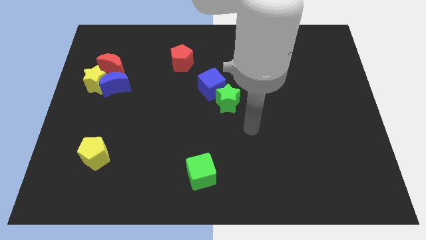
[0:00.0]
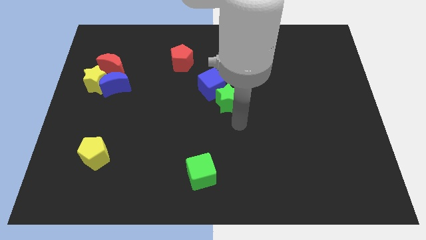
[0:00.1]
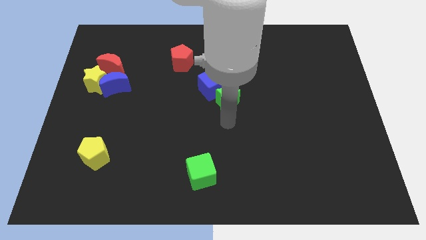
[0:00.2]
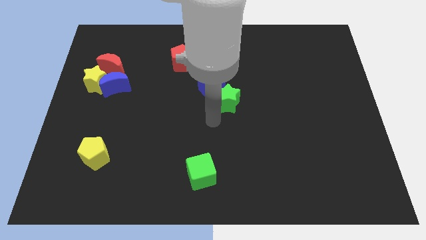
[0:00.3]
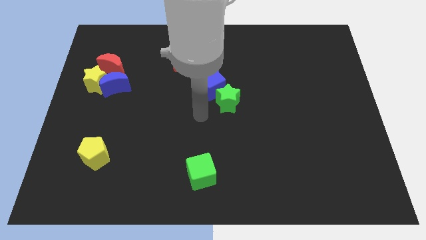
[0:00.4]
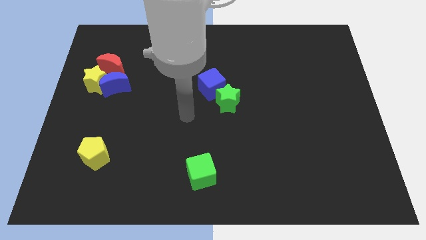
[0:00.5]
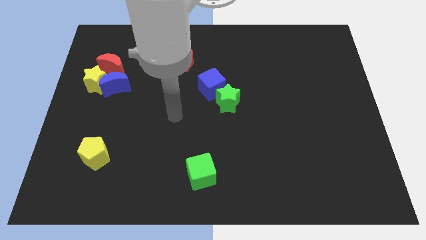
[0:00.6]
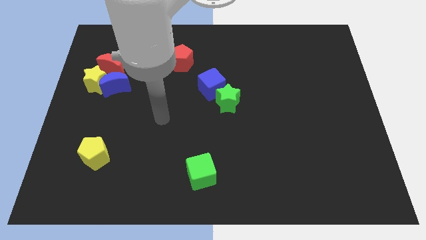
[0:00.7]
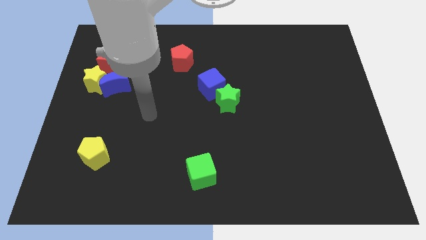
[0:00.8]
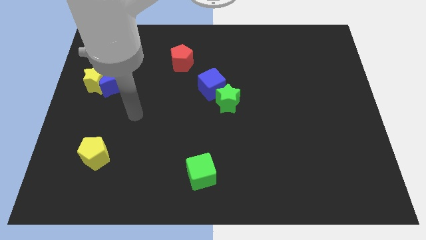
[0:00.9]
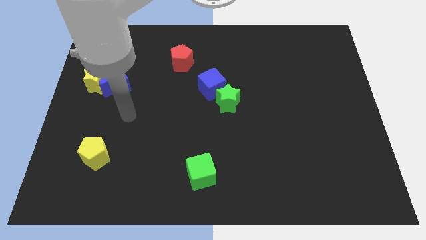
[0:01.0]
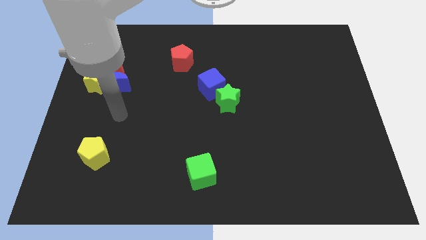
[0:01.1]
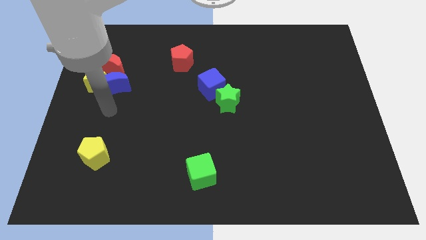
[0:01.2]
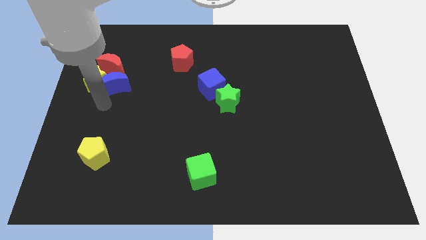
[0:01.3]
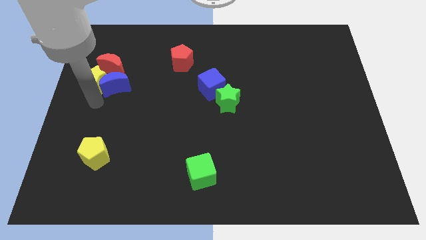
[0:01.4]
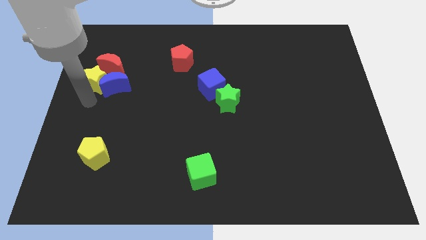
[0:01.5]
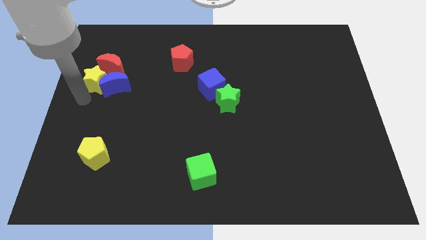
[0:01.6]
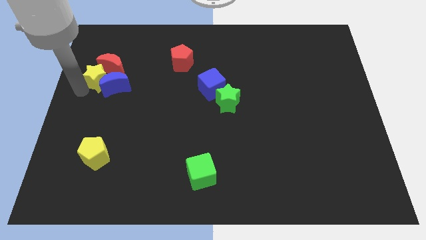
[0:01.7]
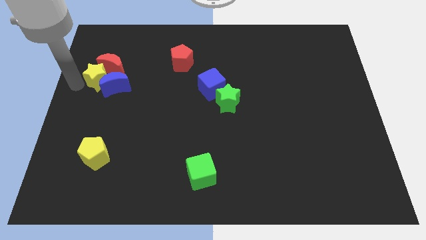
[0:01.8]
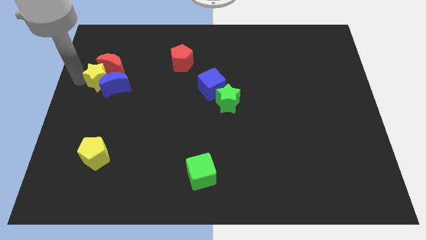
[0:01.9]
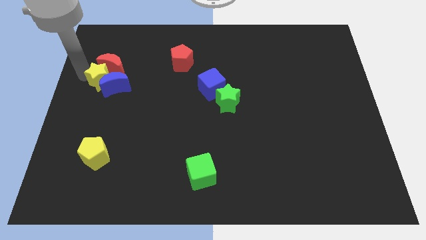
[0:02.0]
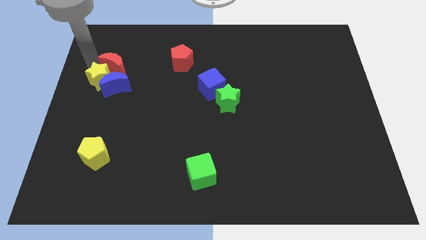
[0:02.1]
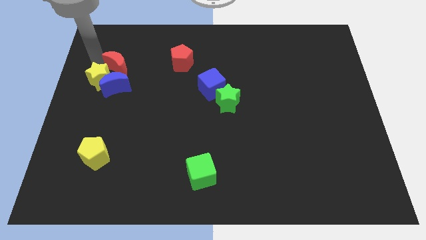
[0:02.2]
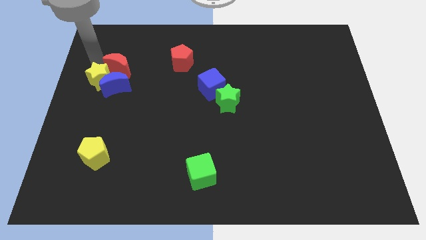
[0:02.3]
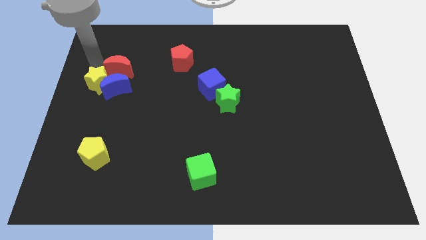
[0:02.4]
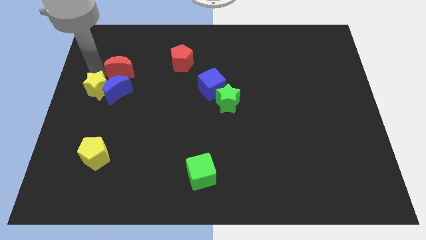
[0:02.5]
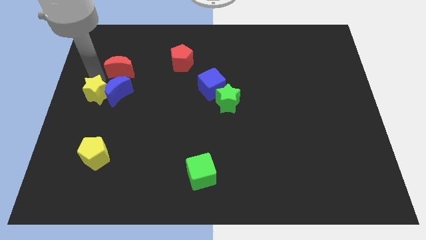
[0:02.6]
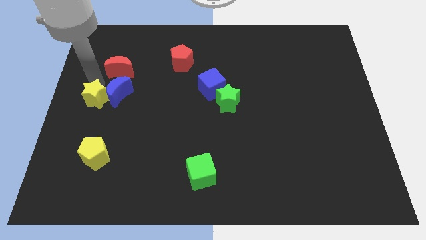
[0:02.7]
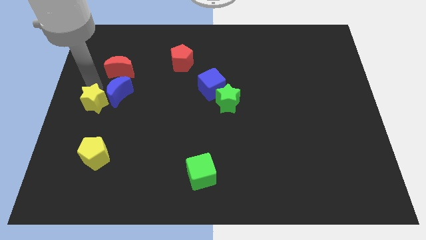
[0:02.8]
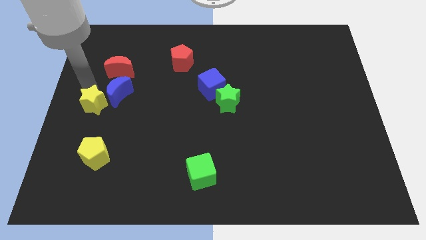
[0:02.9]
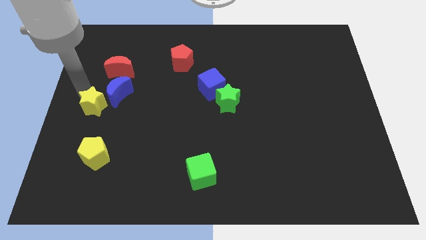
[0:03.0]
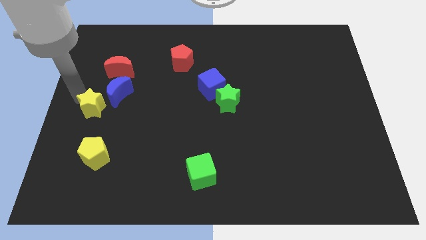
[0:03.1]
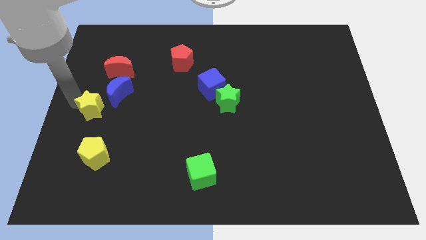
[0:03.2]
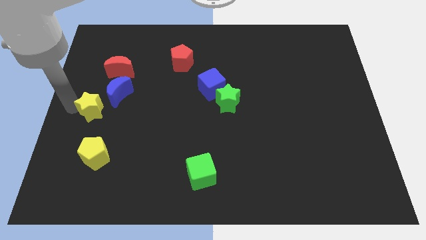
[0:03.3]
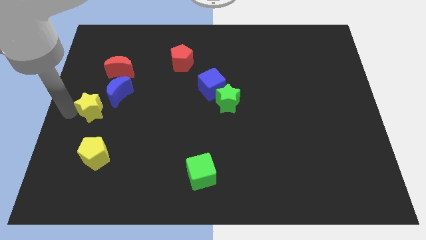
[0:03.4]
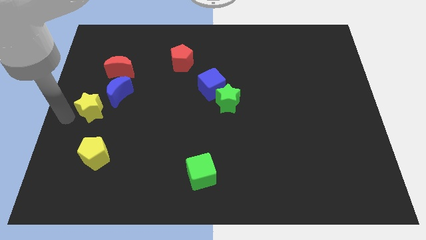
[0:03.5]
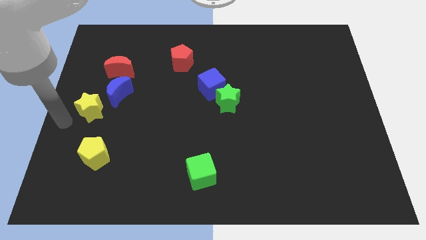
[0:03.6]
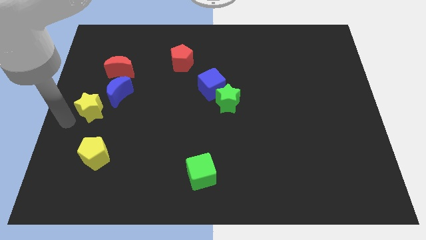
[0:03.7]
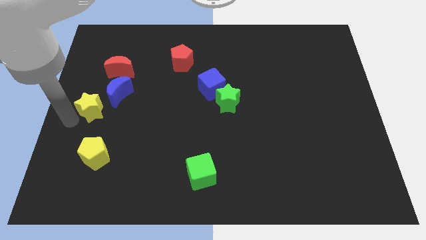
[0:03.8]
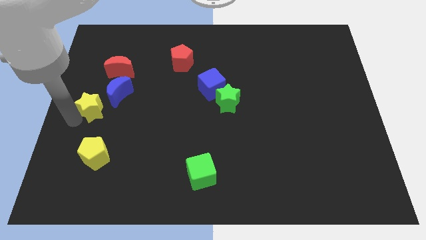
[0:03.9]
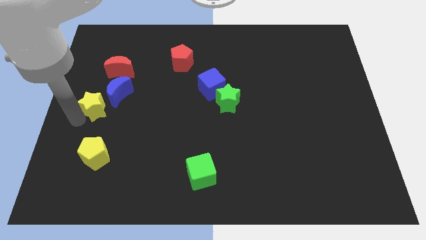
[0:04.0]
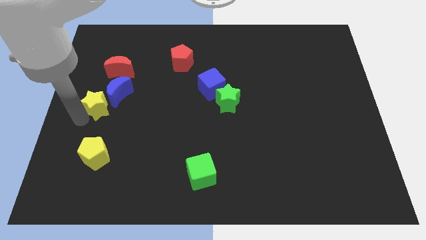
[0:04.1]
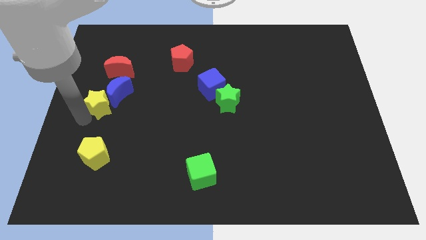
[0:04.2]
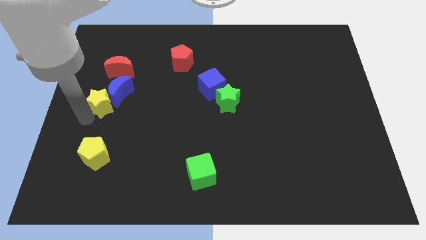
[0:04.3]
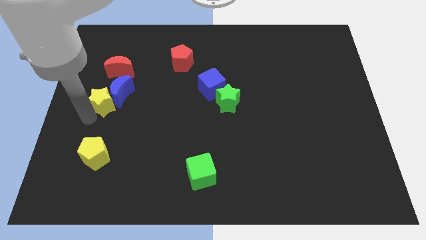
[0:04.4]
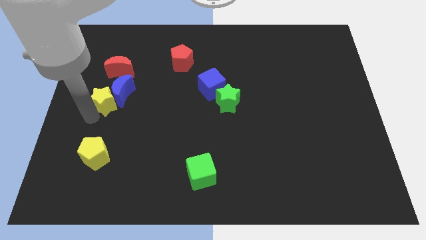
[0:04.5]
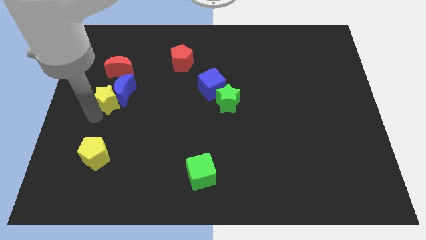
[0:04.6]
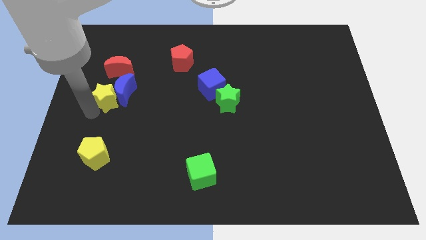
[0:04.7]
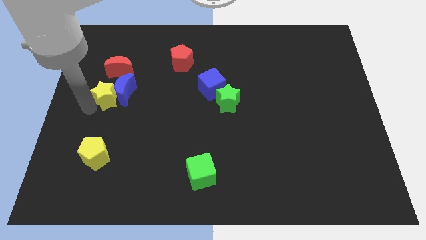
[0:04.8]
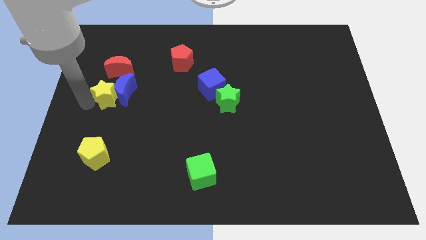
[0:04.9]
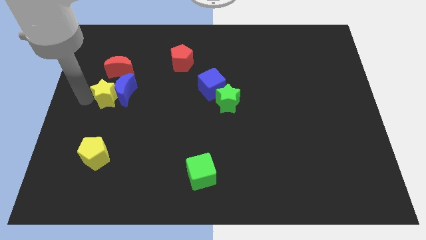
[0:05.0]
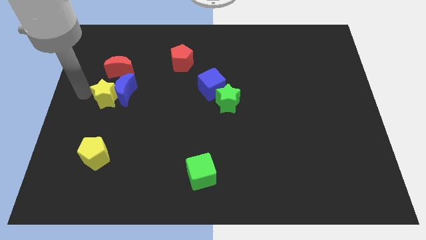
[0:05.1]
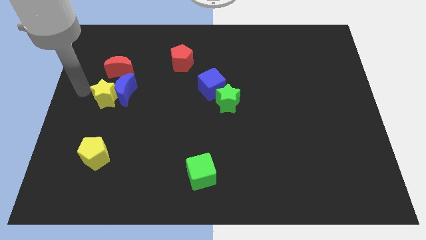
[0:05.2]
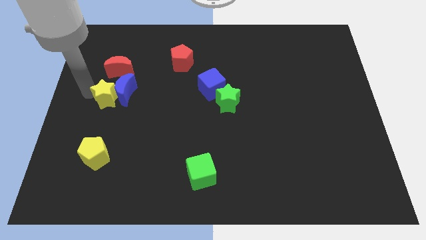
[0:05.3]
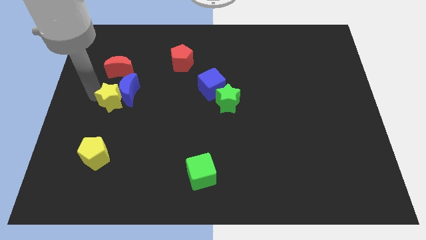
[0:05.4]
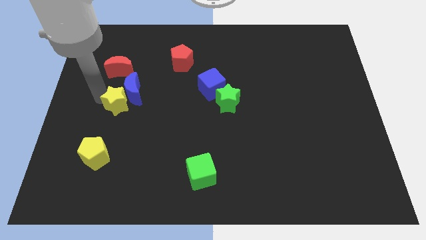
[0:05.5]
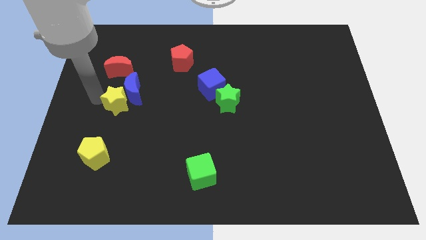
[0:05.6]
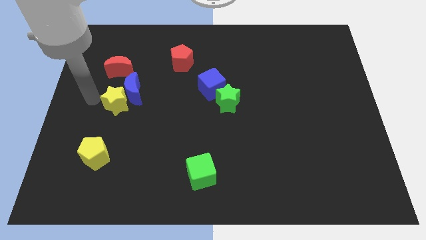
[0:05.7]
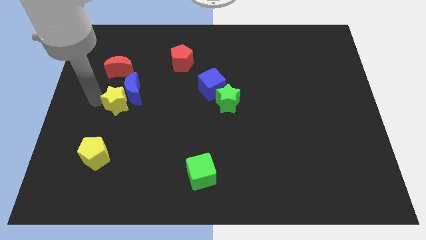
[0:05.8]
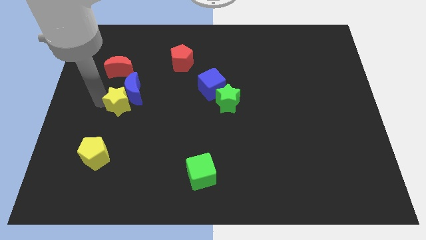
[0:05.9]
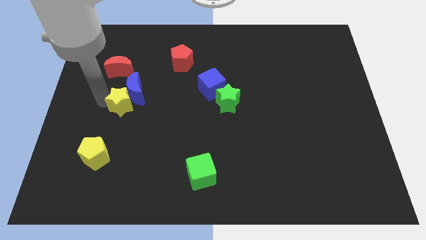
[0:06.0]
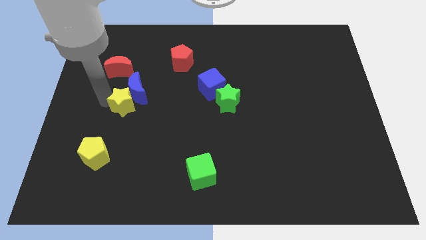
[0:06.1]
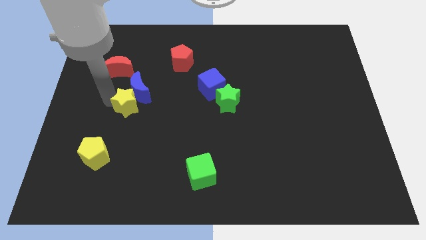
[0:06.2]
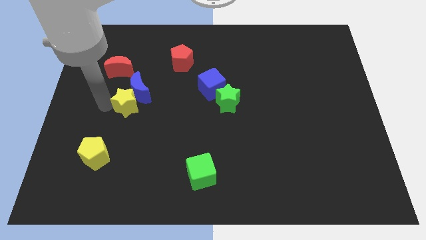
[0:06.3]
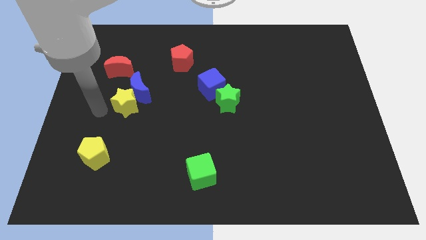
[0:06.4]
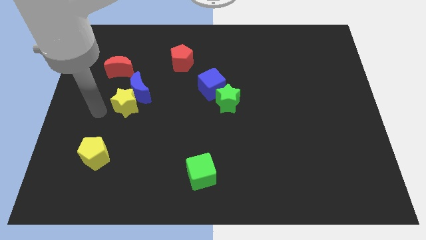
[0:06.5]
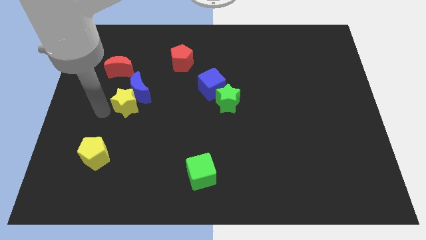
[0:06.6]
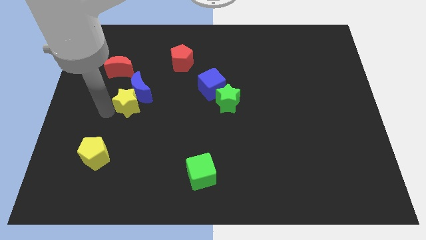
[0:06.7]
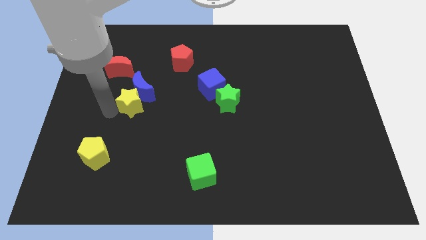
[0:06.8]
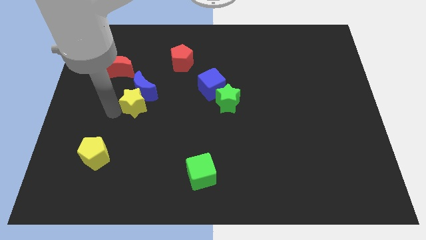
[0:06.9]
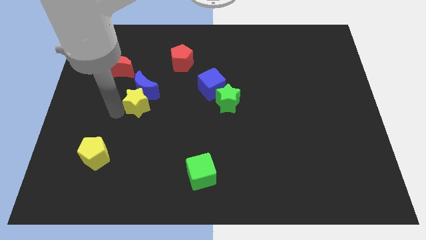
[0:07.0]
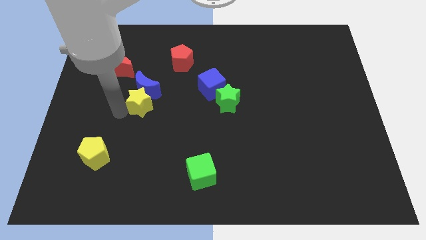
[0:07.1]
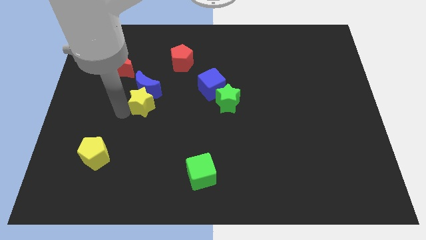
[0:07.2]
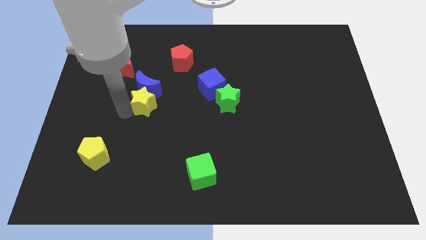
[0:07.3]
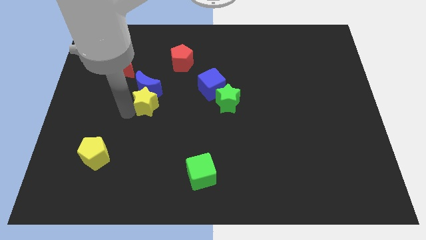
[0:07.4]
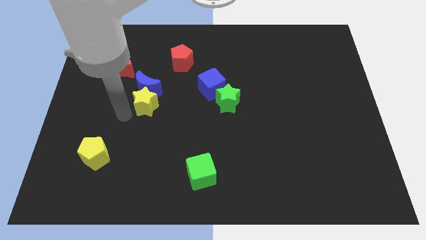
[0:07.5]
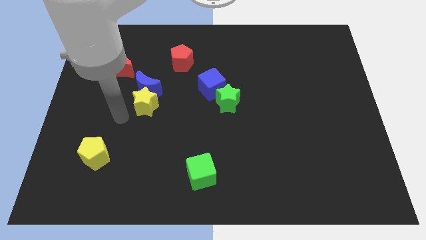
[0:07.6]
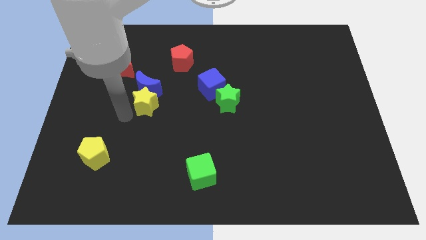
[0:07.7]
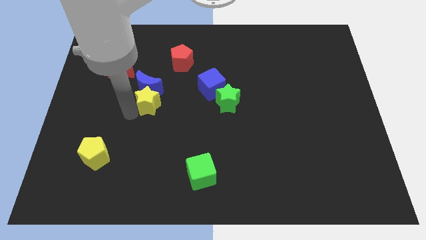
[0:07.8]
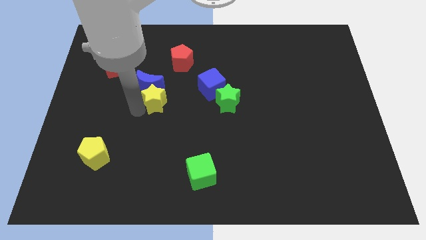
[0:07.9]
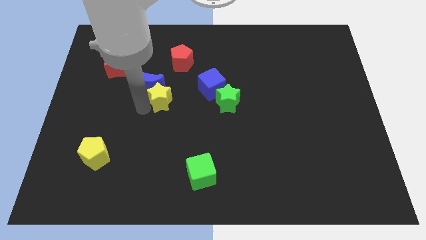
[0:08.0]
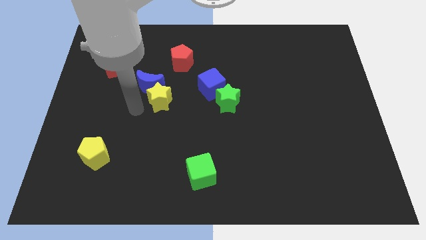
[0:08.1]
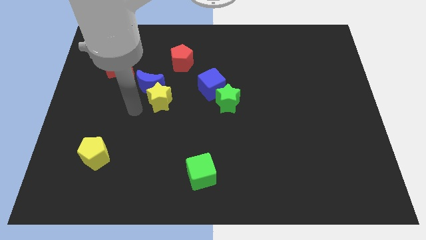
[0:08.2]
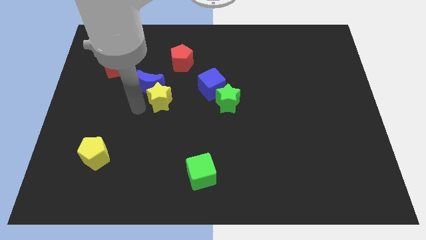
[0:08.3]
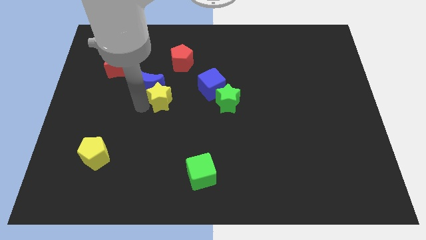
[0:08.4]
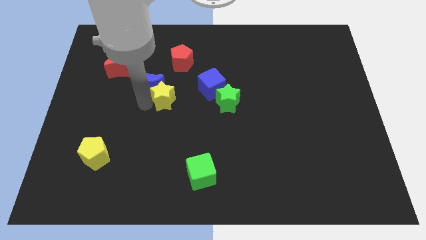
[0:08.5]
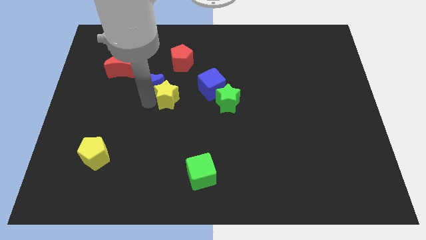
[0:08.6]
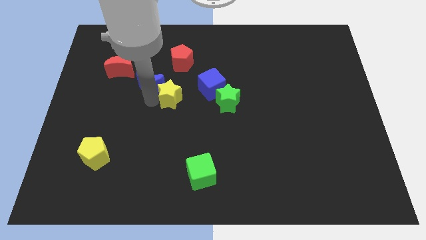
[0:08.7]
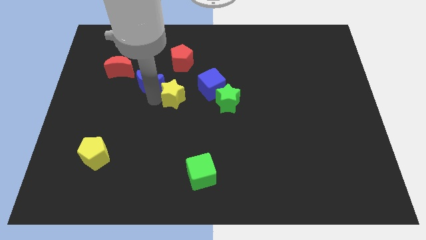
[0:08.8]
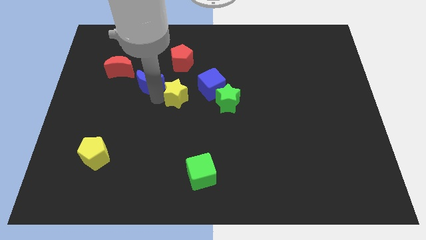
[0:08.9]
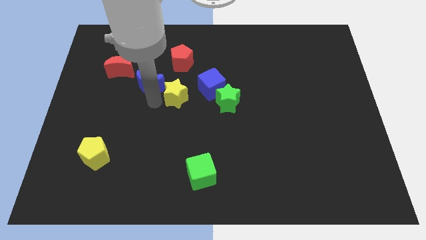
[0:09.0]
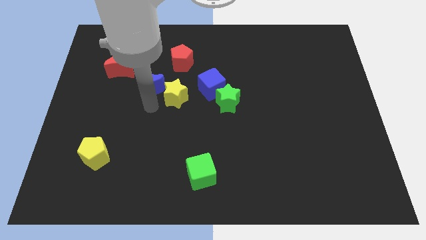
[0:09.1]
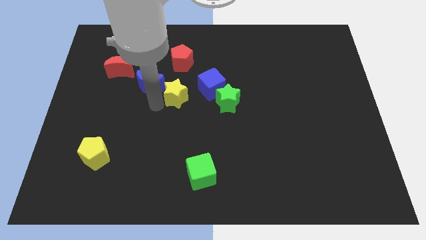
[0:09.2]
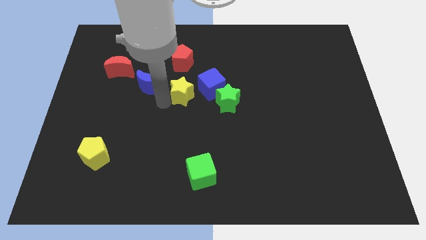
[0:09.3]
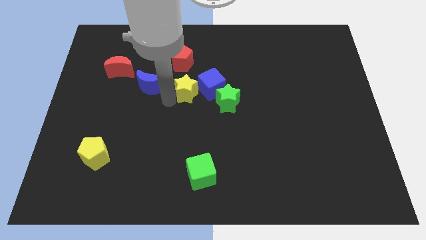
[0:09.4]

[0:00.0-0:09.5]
slide the yellow star to the blue cube
